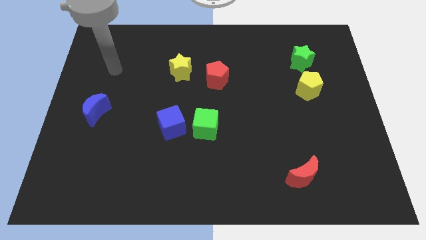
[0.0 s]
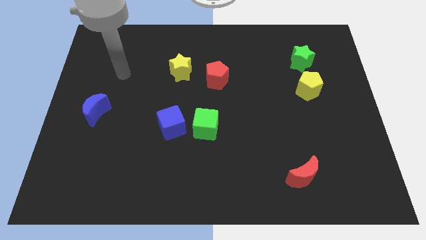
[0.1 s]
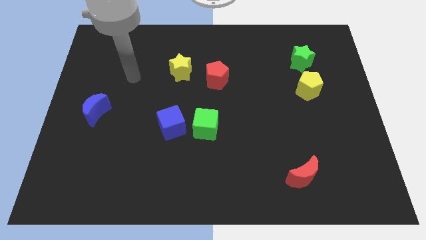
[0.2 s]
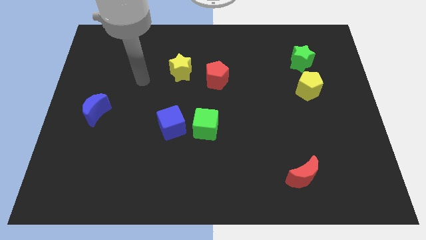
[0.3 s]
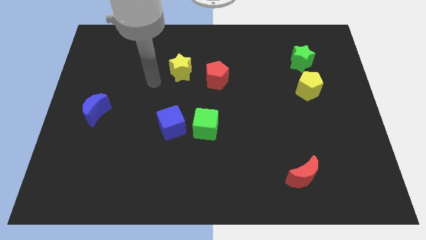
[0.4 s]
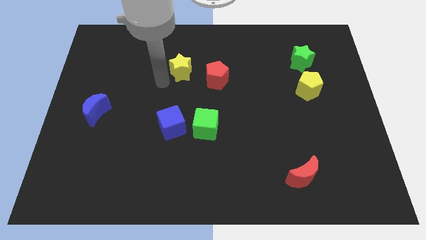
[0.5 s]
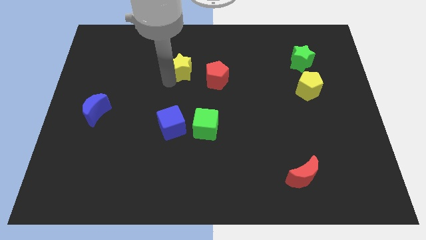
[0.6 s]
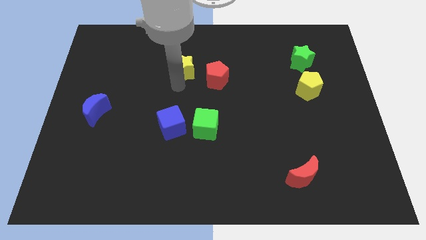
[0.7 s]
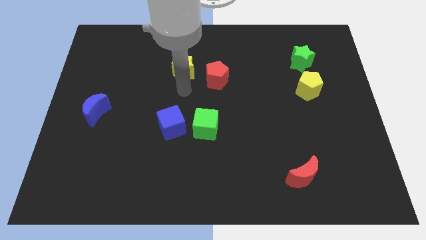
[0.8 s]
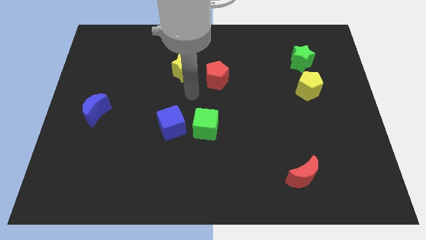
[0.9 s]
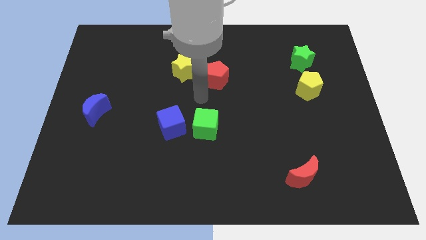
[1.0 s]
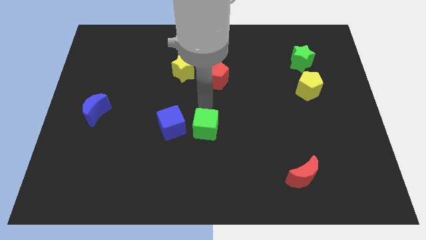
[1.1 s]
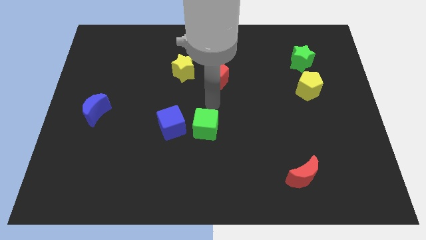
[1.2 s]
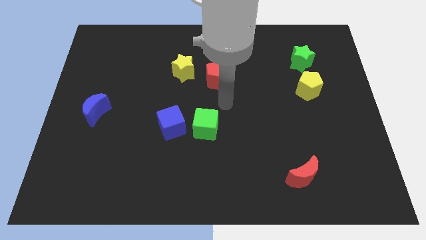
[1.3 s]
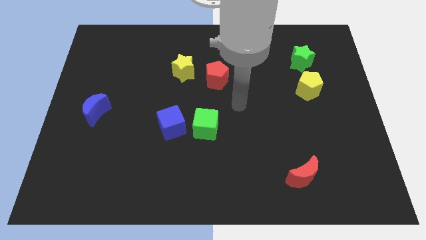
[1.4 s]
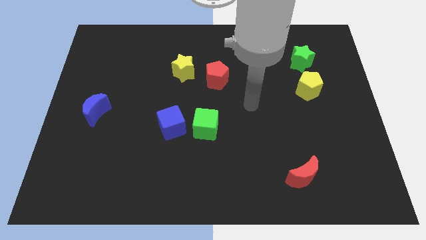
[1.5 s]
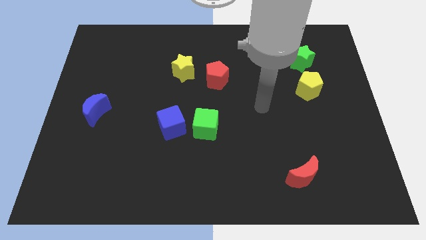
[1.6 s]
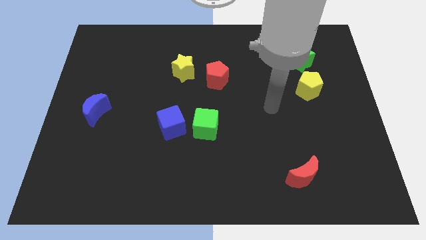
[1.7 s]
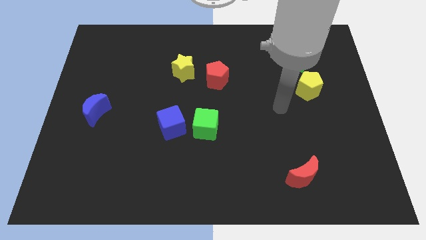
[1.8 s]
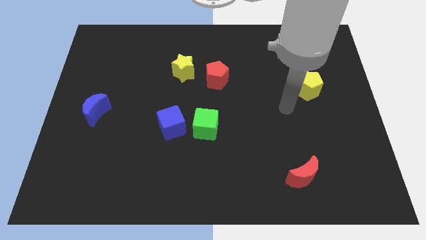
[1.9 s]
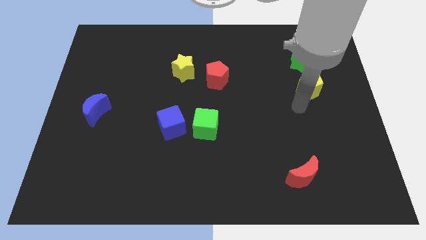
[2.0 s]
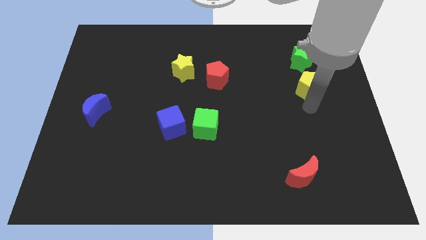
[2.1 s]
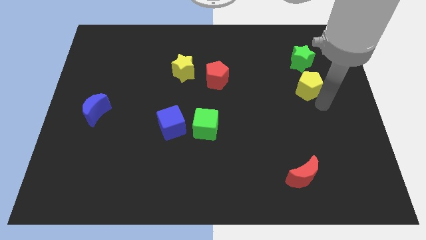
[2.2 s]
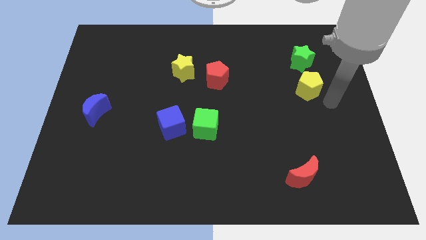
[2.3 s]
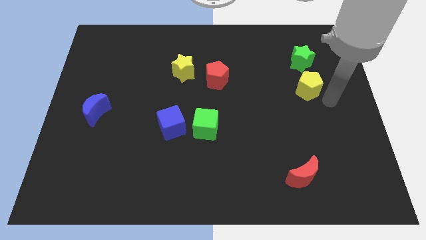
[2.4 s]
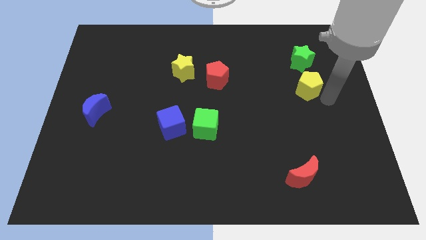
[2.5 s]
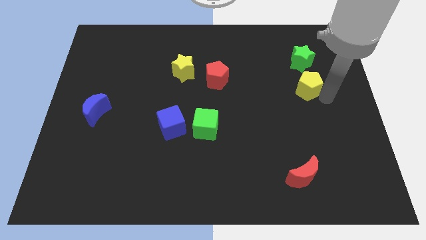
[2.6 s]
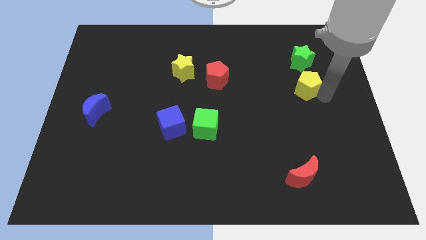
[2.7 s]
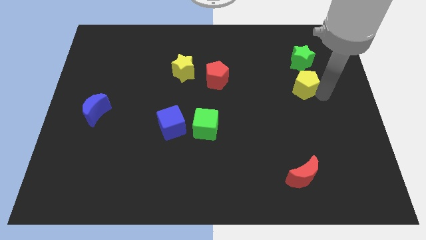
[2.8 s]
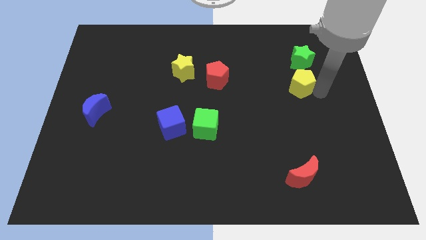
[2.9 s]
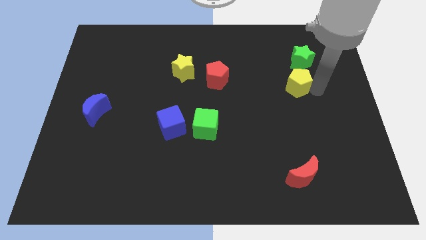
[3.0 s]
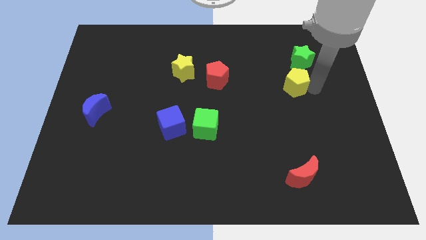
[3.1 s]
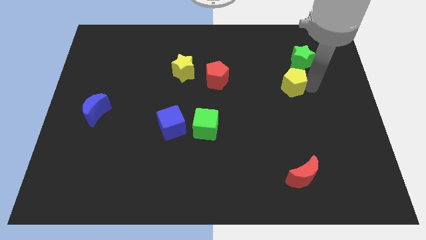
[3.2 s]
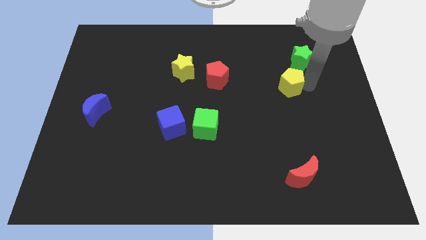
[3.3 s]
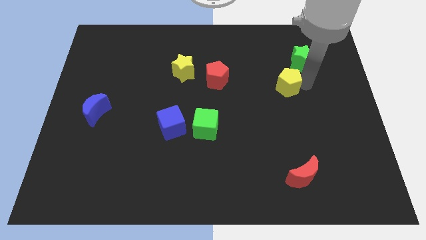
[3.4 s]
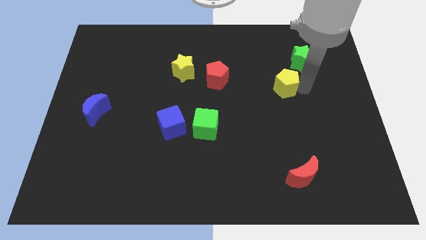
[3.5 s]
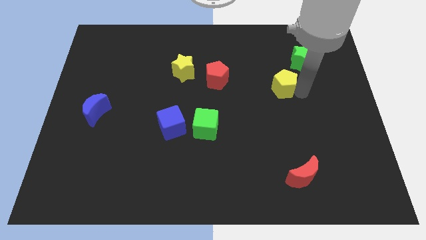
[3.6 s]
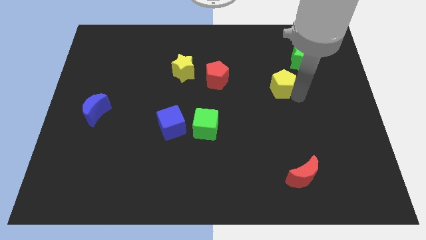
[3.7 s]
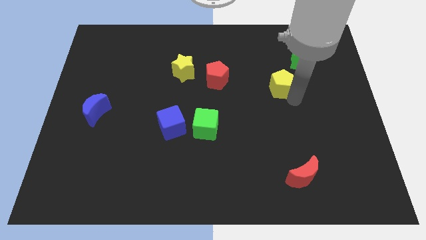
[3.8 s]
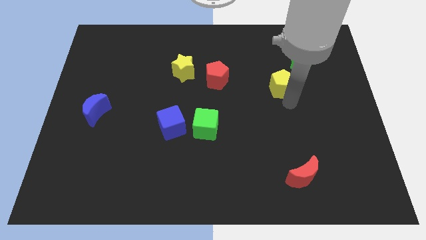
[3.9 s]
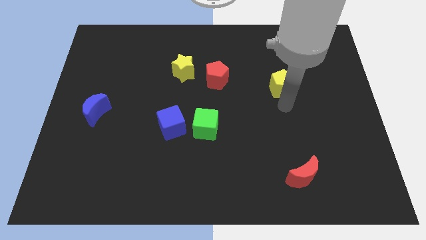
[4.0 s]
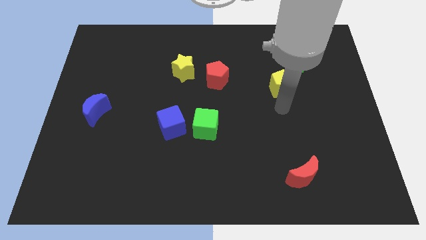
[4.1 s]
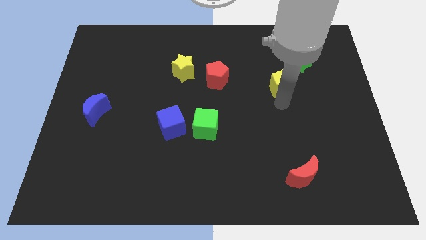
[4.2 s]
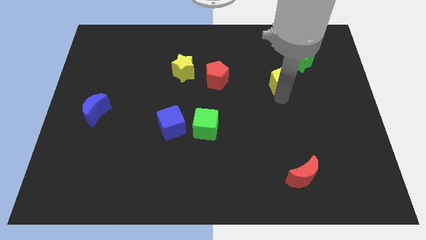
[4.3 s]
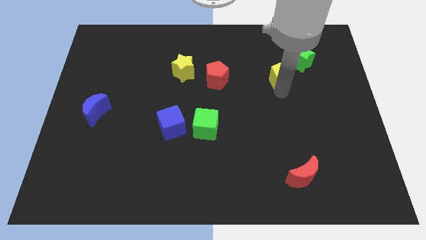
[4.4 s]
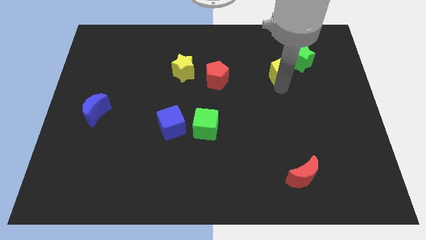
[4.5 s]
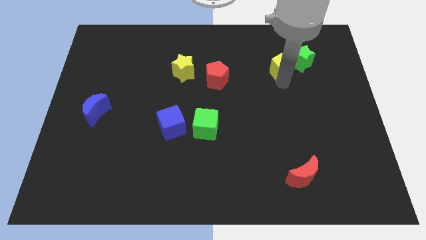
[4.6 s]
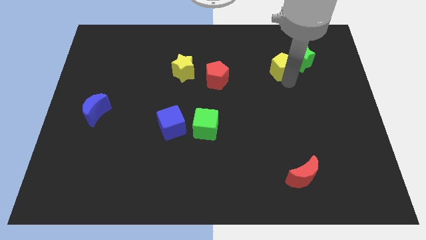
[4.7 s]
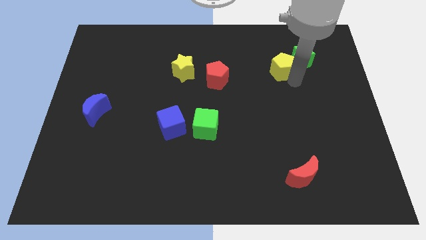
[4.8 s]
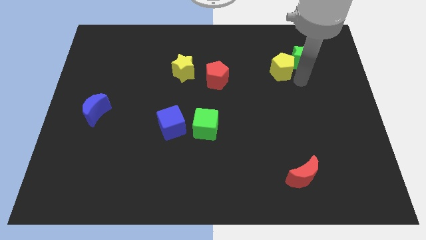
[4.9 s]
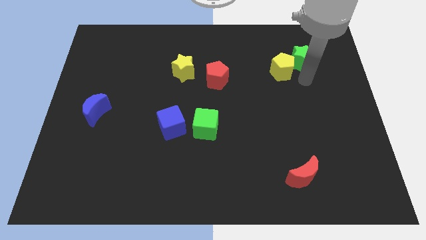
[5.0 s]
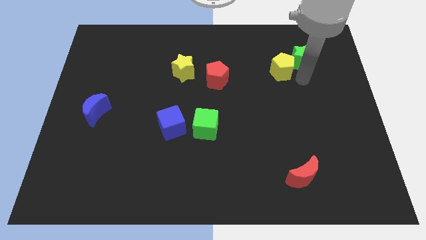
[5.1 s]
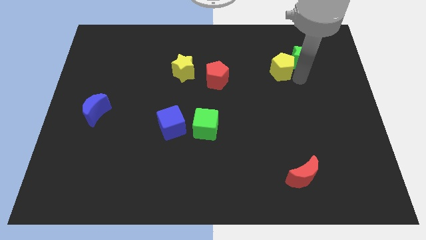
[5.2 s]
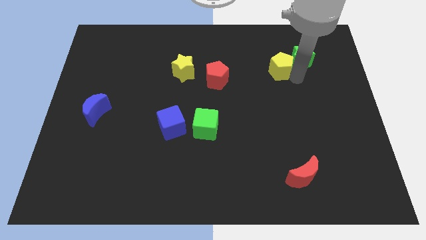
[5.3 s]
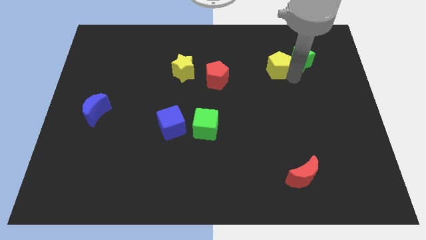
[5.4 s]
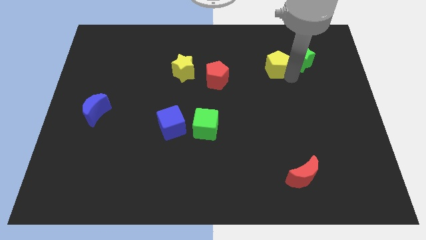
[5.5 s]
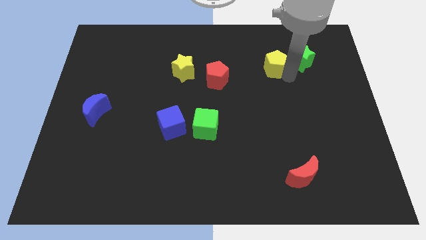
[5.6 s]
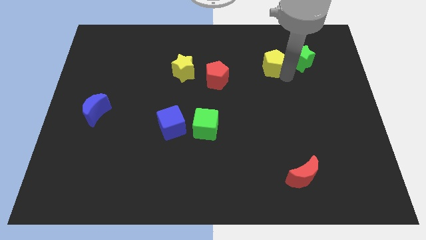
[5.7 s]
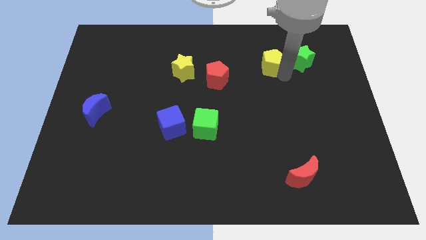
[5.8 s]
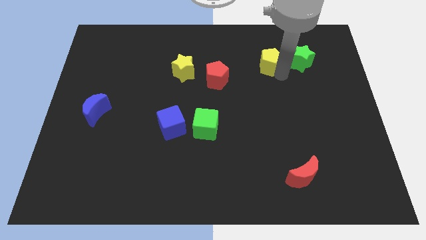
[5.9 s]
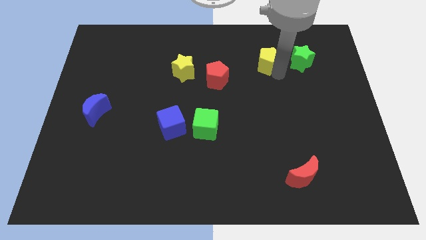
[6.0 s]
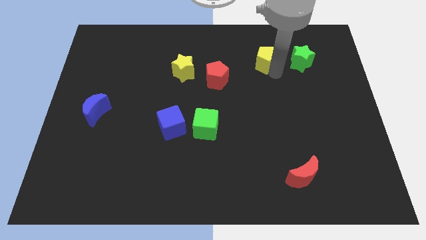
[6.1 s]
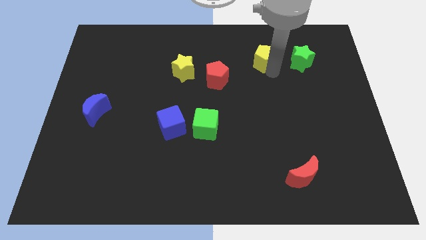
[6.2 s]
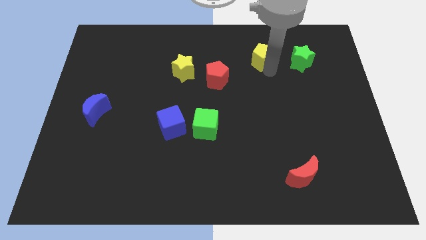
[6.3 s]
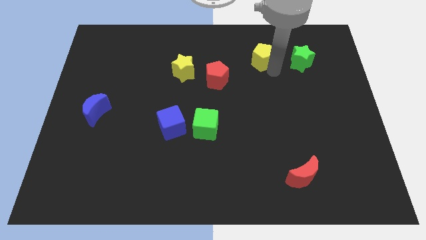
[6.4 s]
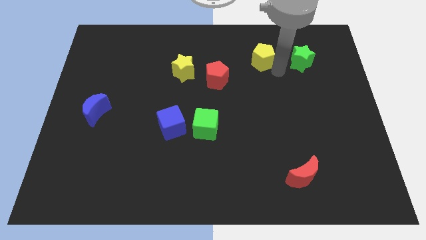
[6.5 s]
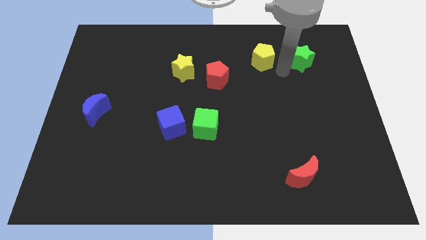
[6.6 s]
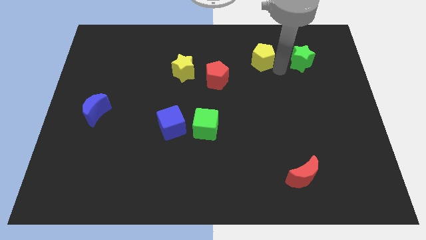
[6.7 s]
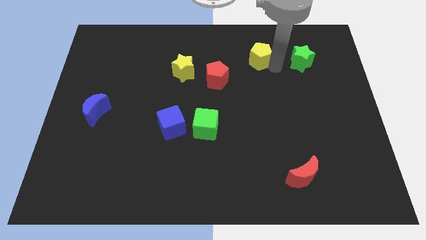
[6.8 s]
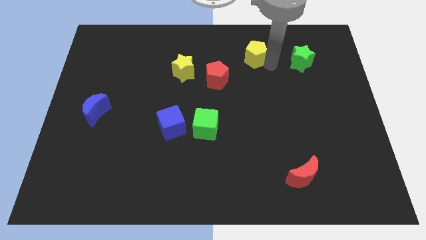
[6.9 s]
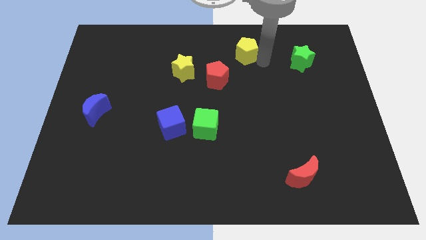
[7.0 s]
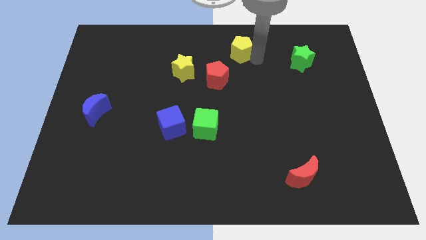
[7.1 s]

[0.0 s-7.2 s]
push the yellow pentagon to the towards your base
